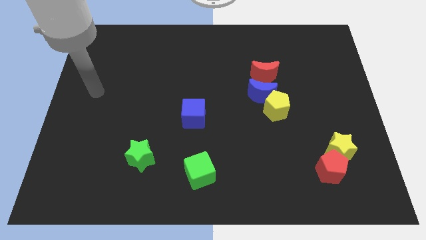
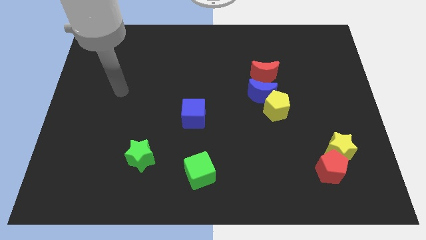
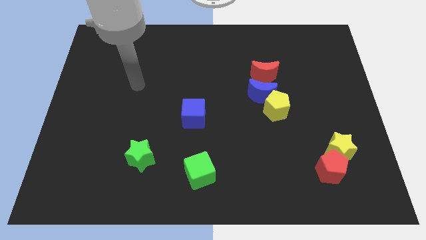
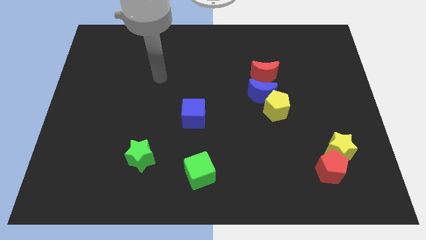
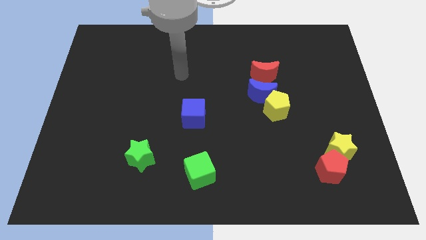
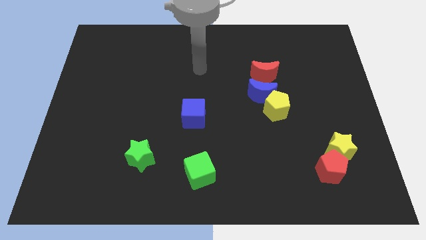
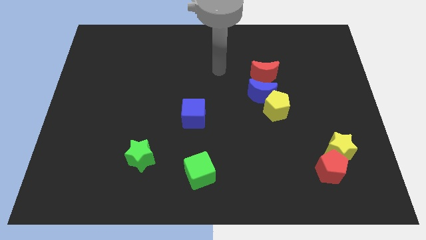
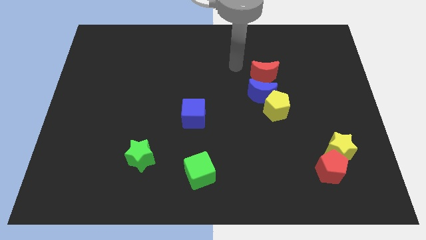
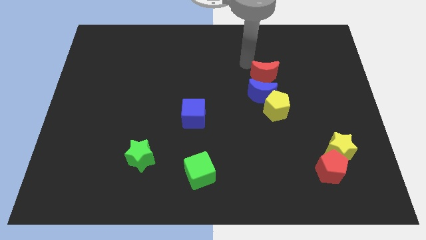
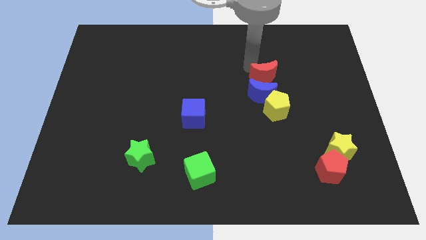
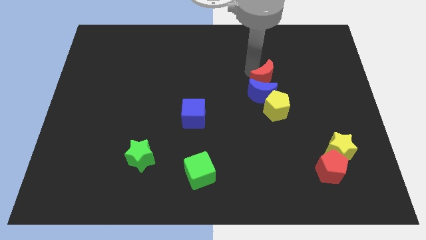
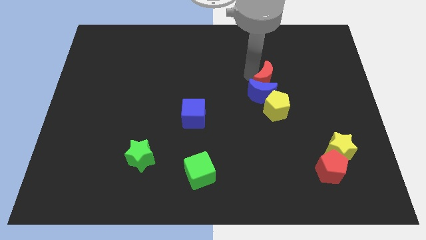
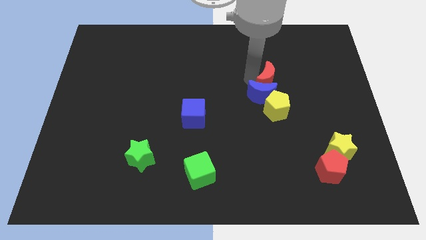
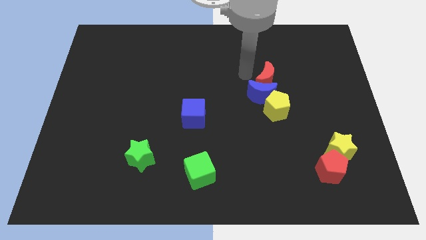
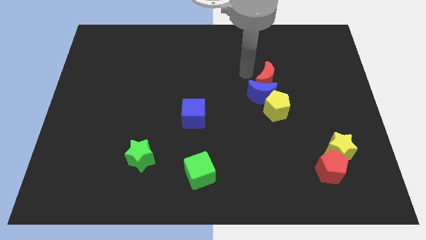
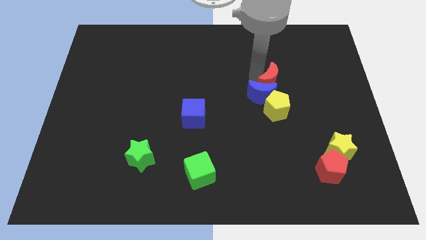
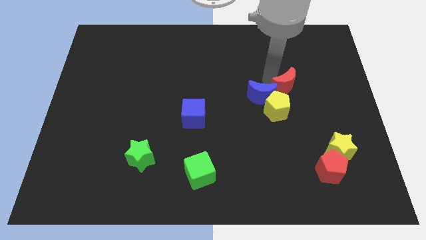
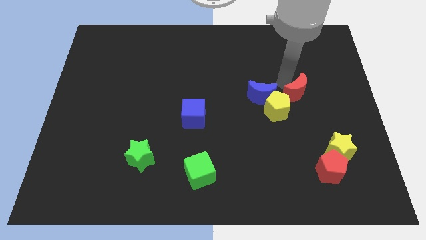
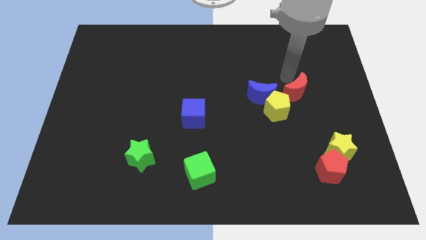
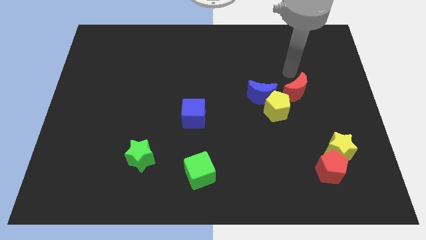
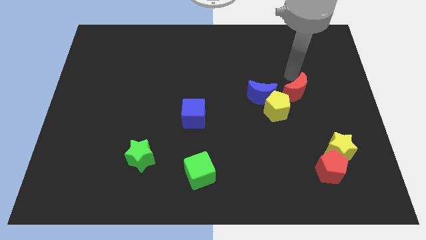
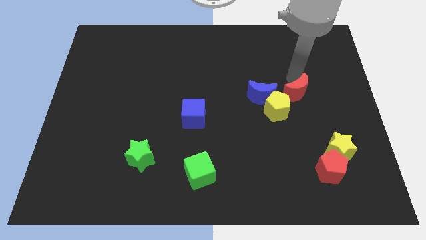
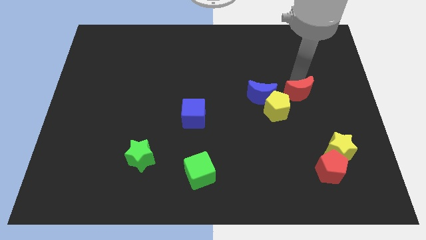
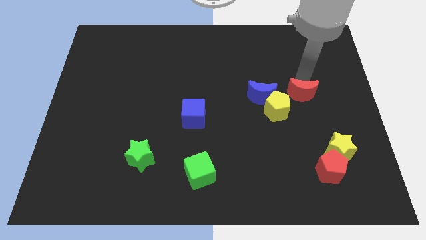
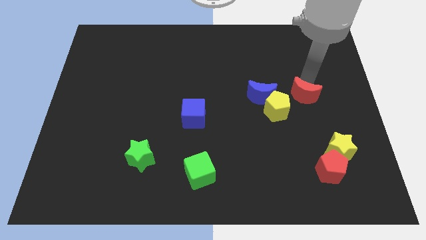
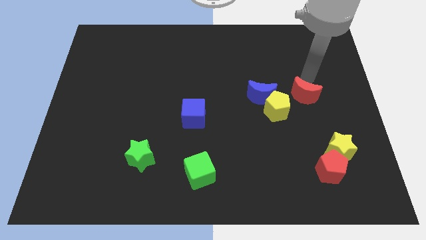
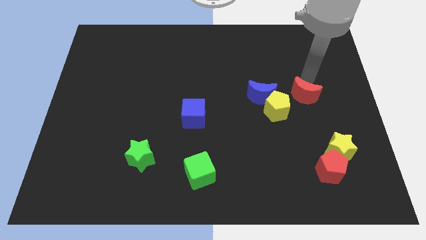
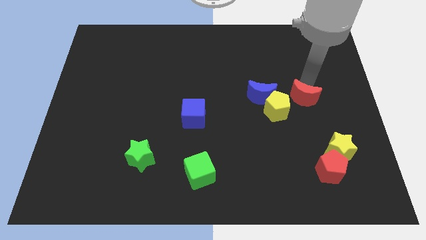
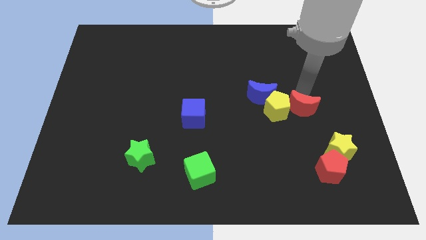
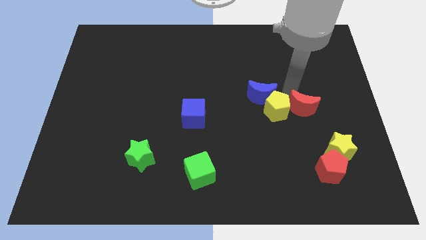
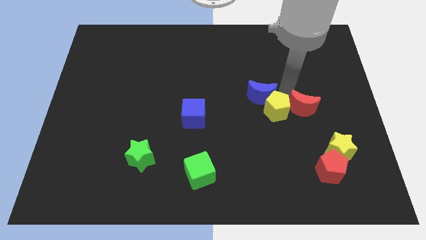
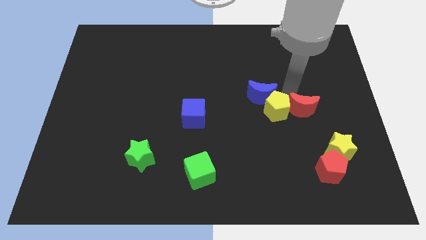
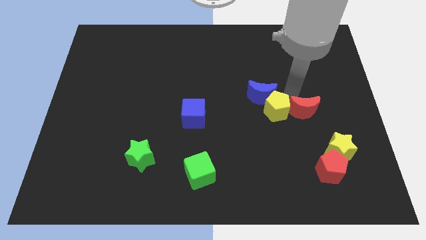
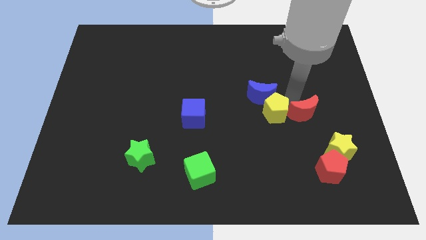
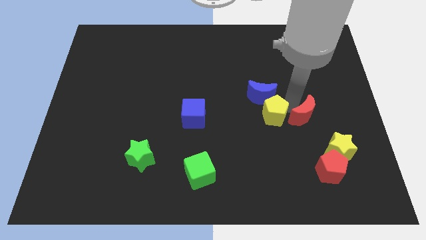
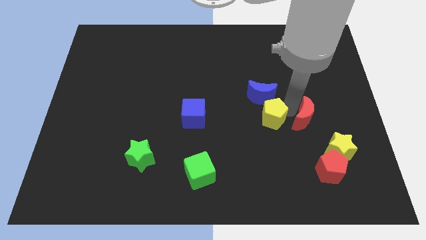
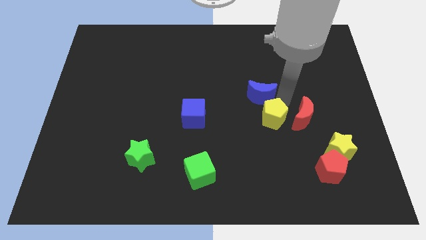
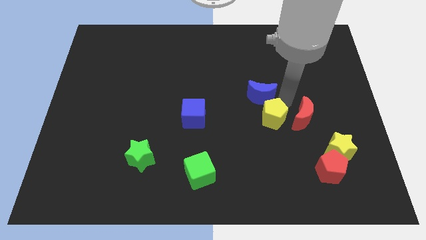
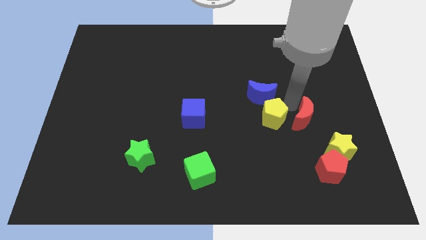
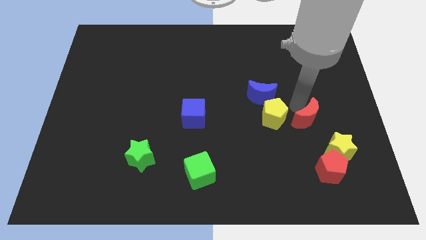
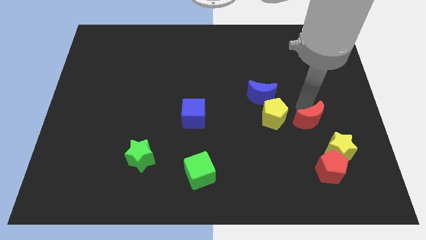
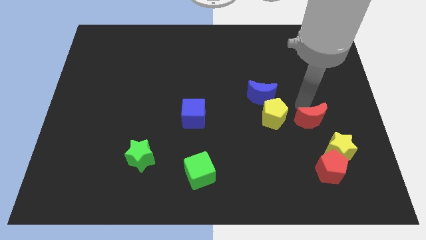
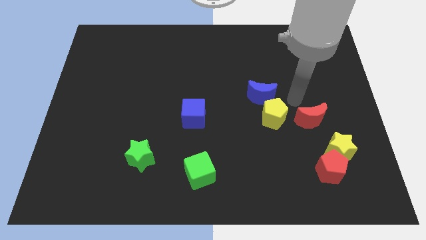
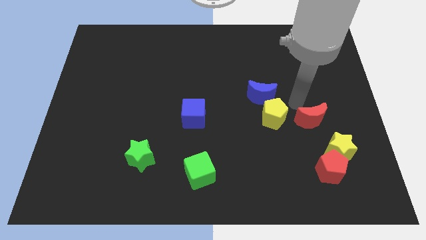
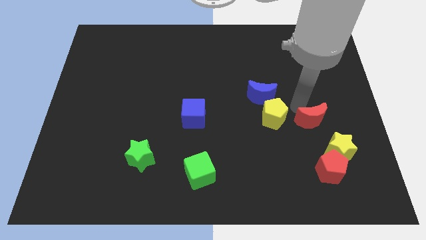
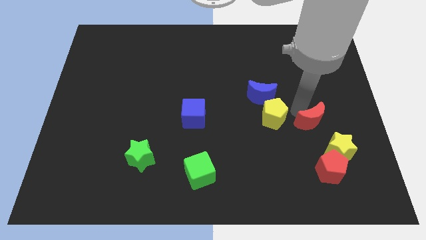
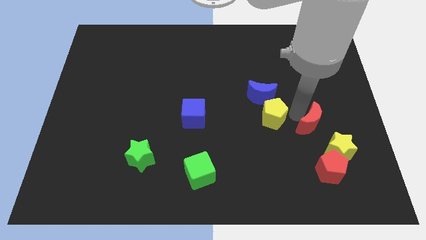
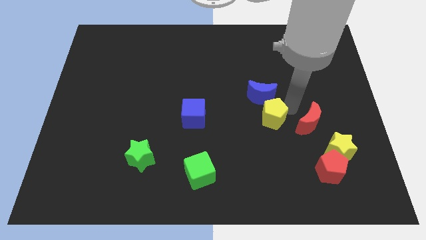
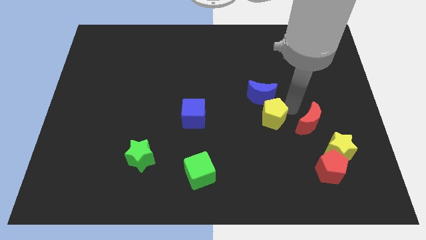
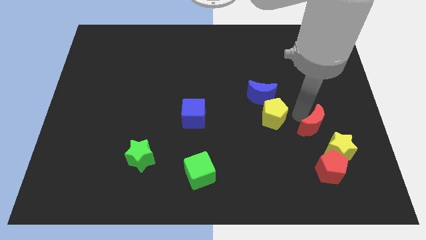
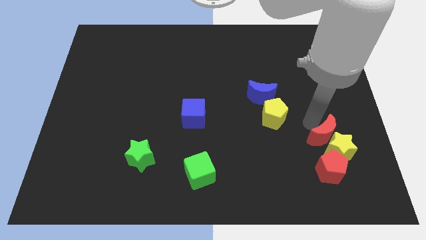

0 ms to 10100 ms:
put the red moon next to the yellow star

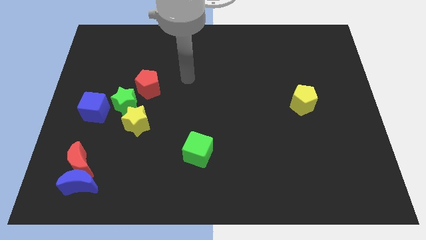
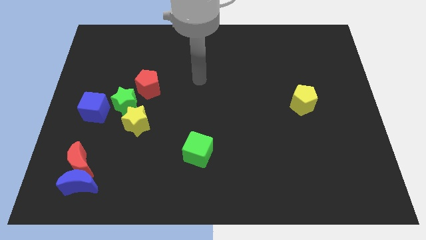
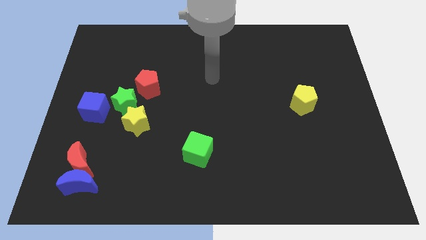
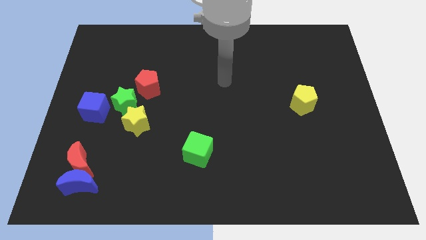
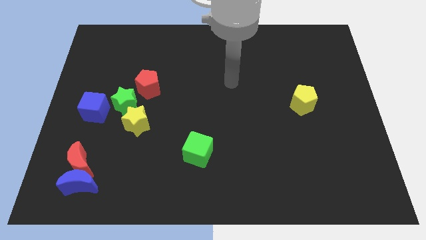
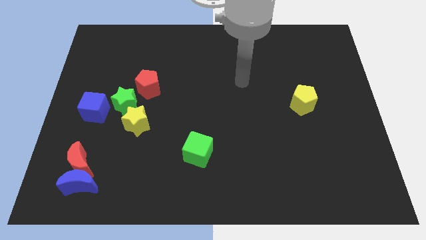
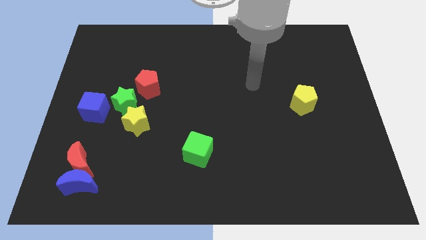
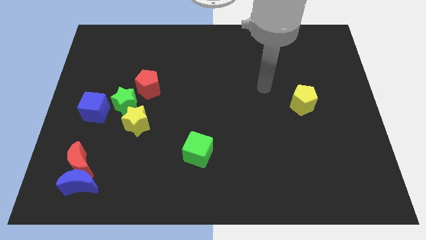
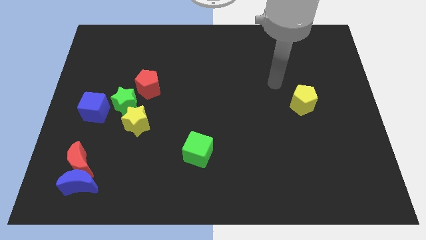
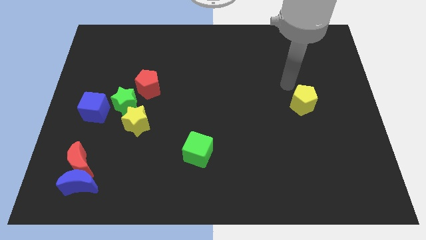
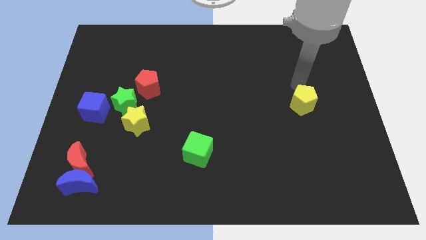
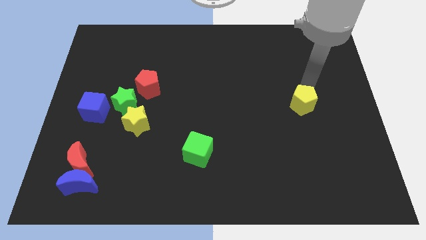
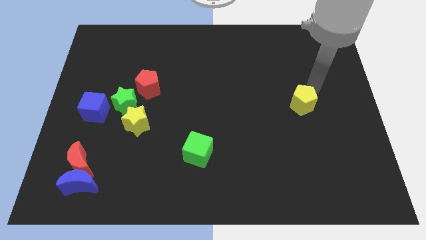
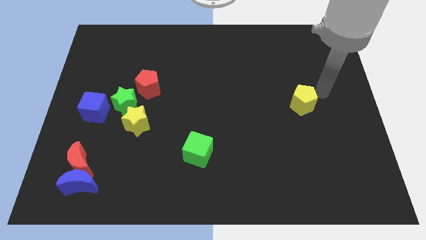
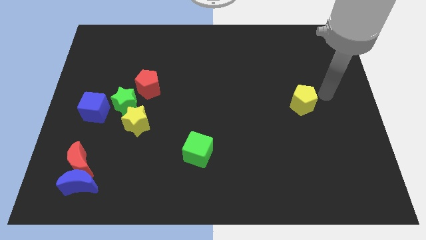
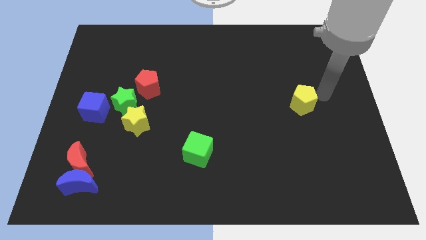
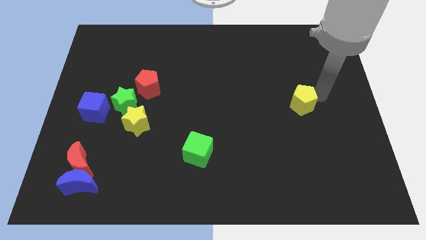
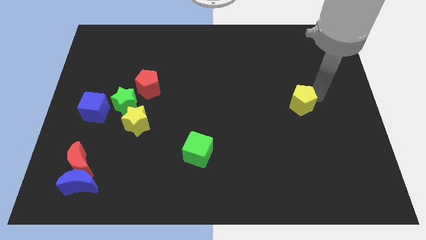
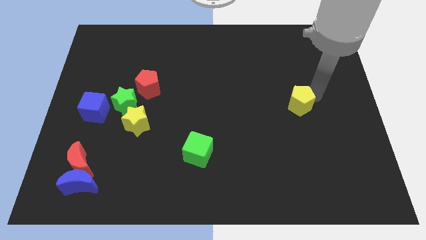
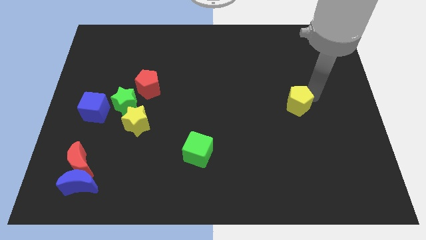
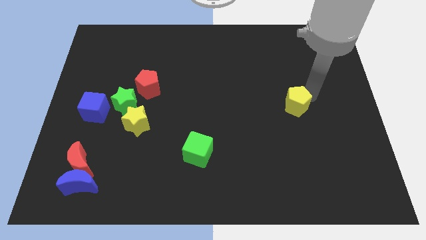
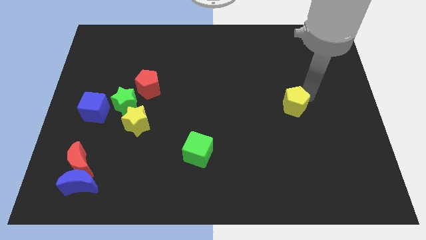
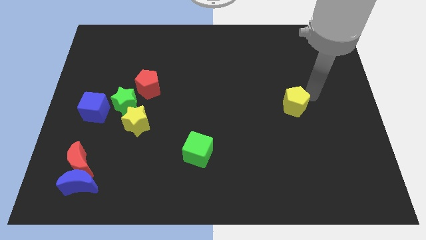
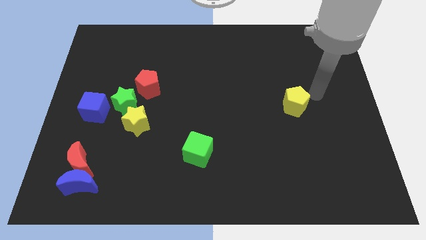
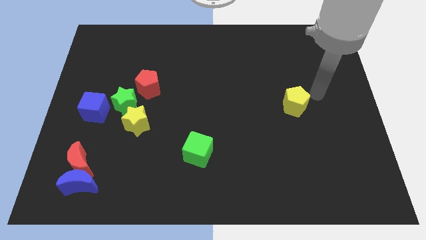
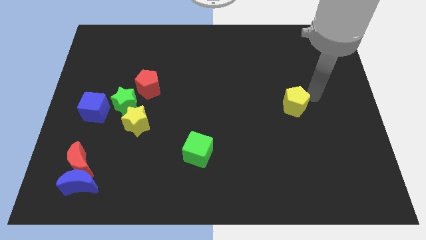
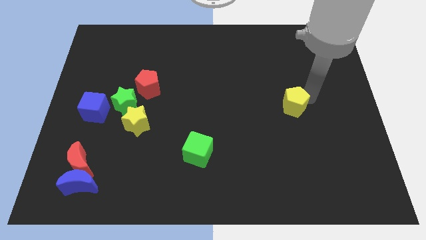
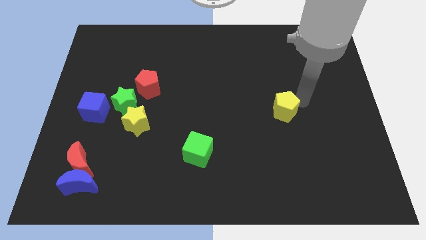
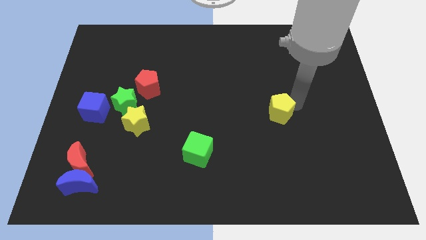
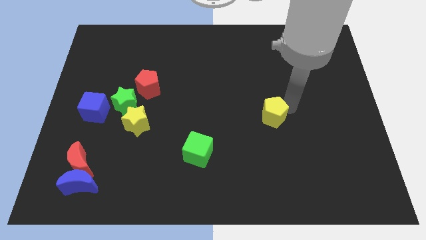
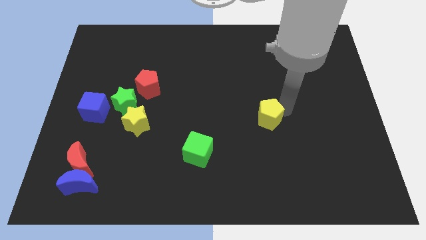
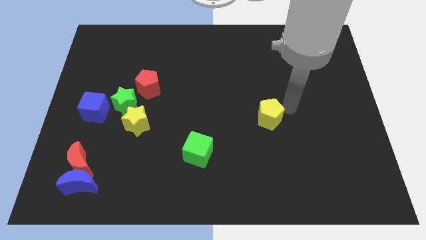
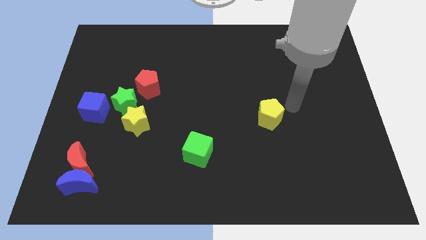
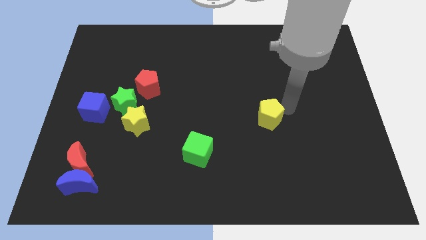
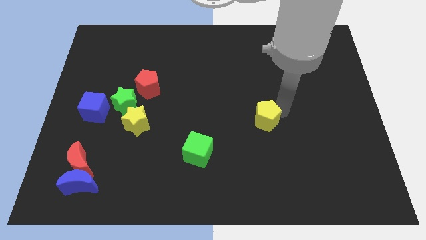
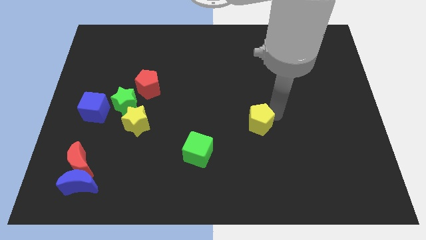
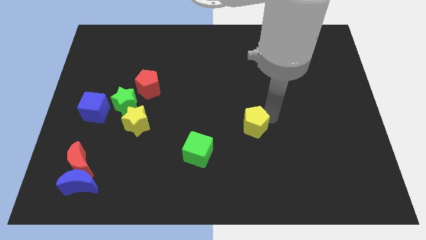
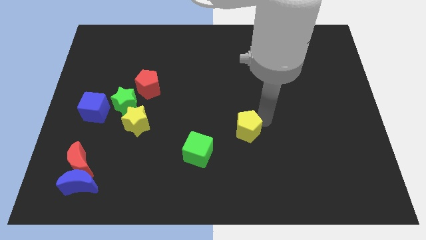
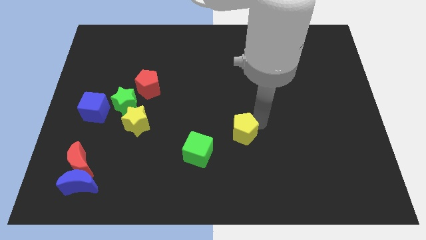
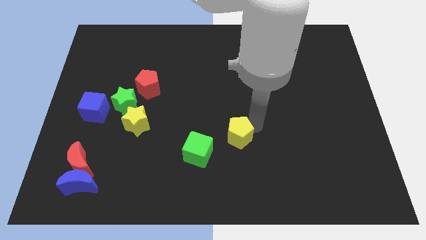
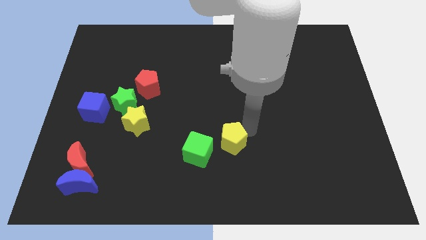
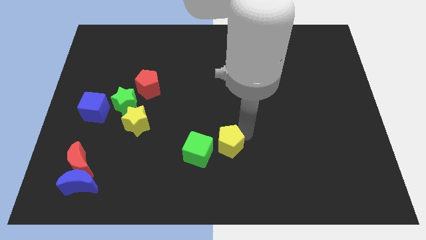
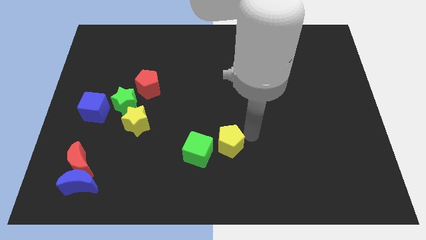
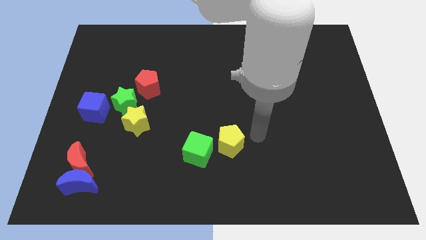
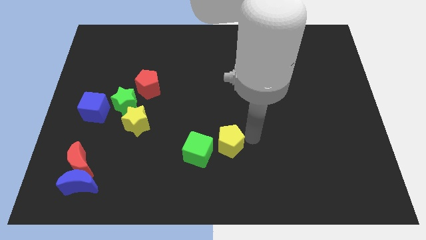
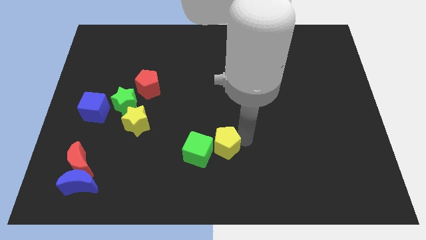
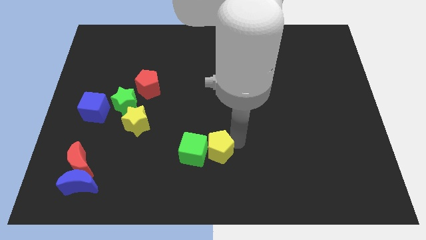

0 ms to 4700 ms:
move the yellow pentagon to the green cube
